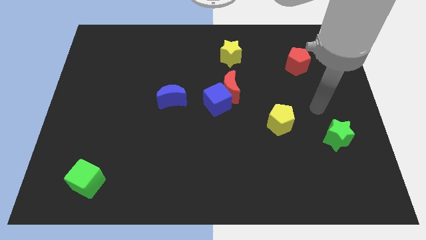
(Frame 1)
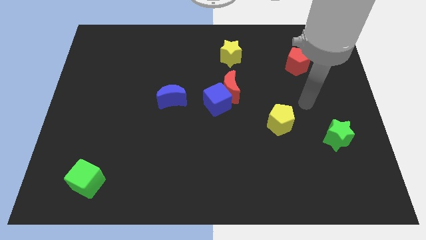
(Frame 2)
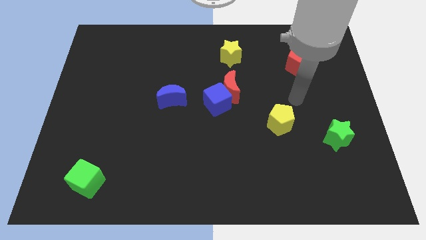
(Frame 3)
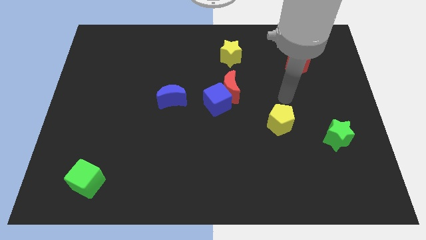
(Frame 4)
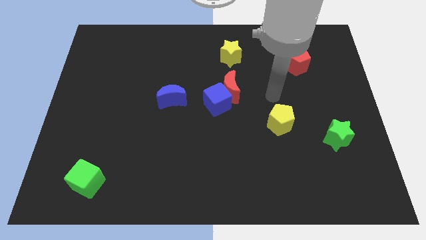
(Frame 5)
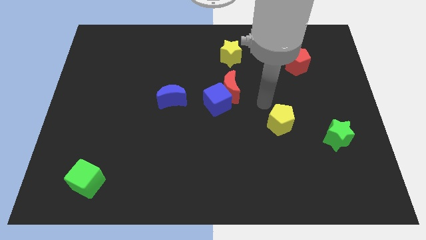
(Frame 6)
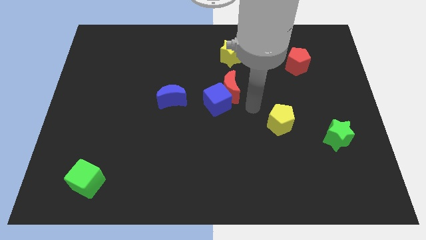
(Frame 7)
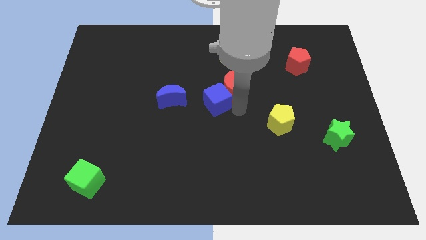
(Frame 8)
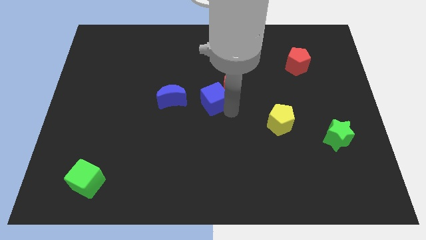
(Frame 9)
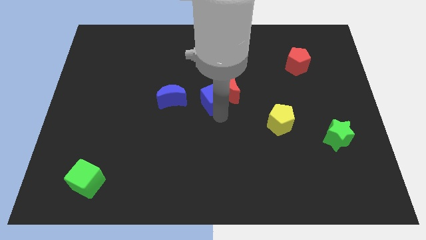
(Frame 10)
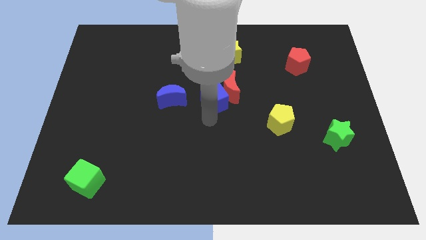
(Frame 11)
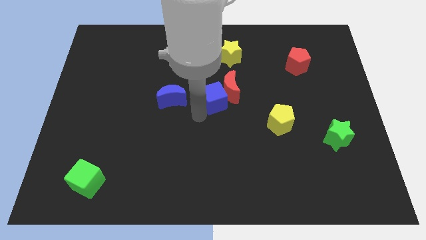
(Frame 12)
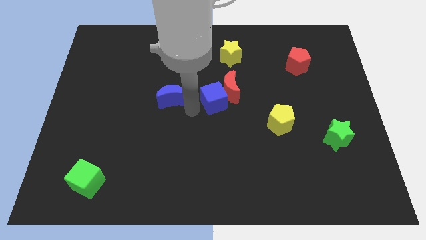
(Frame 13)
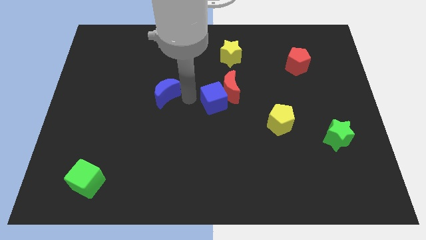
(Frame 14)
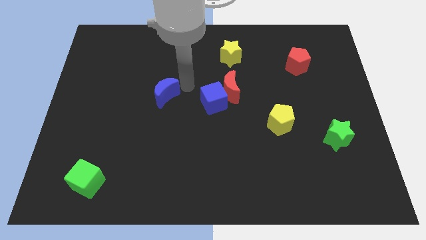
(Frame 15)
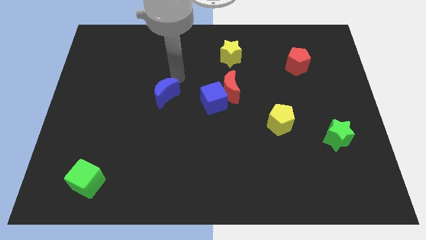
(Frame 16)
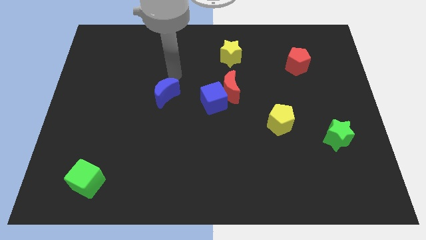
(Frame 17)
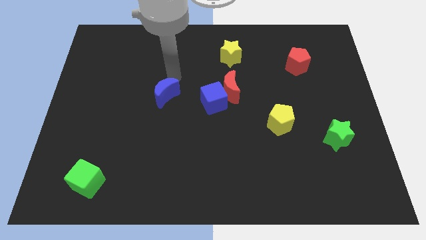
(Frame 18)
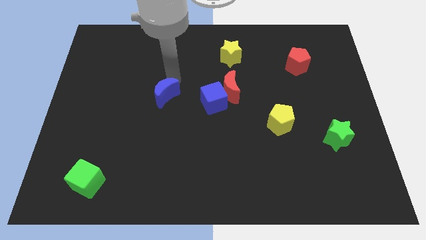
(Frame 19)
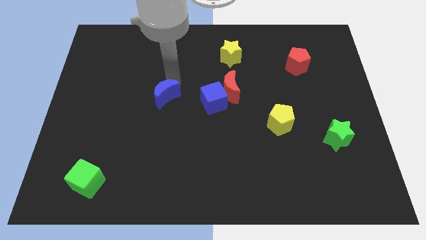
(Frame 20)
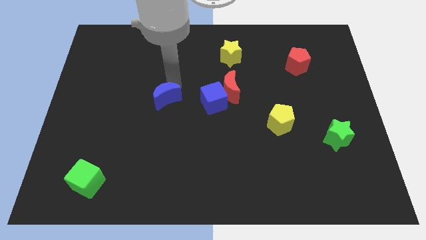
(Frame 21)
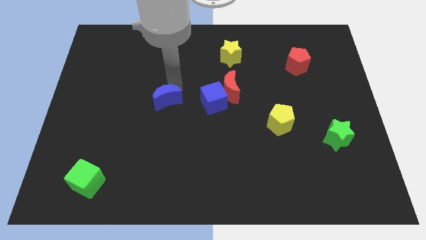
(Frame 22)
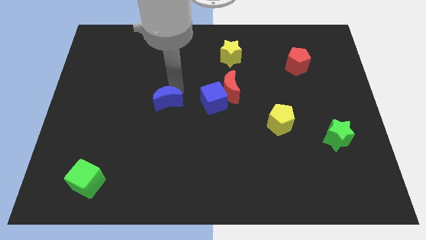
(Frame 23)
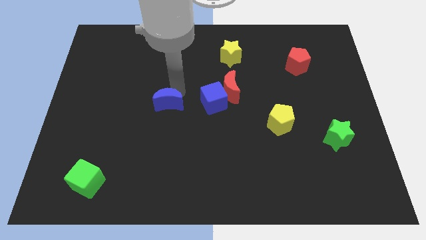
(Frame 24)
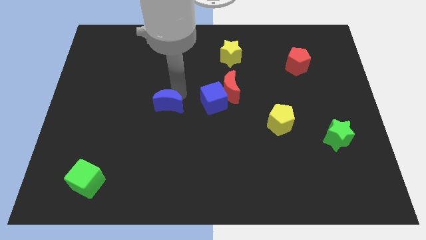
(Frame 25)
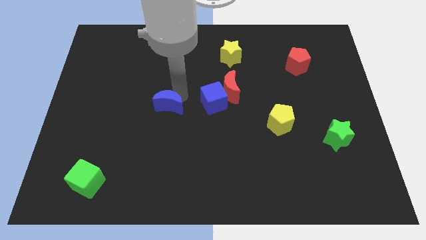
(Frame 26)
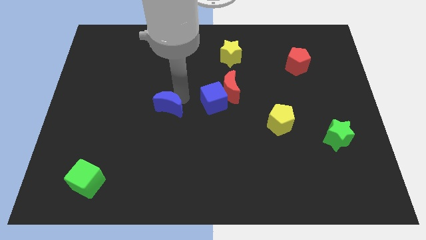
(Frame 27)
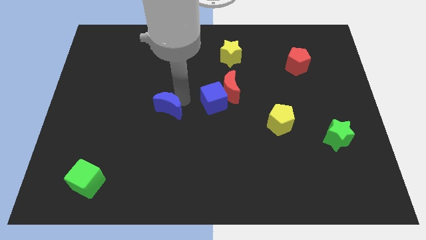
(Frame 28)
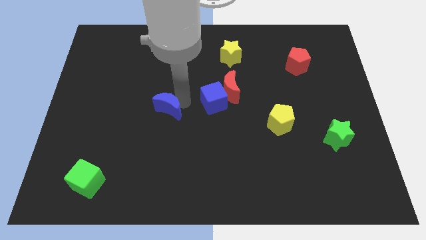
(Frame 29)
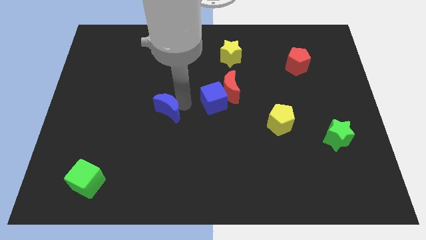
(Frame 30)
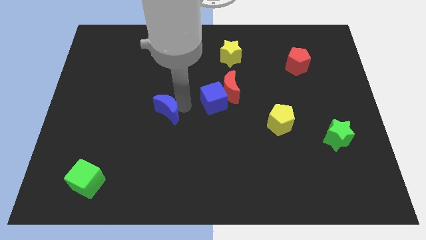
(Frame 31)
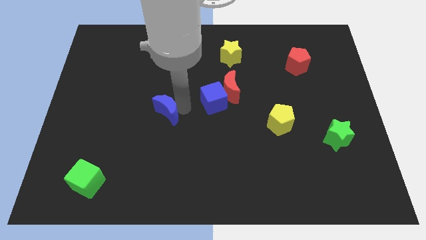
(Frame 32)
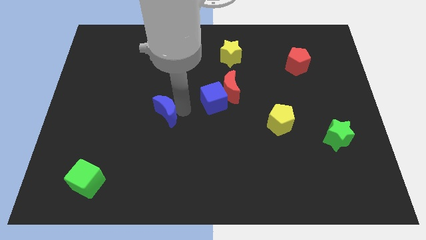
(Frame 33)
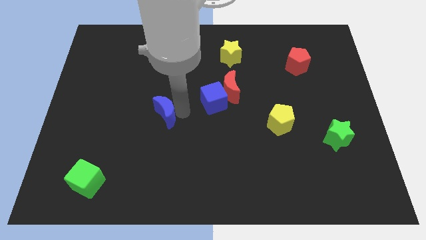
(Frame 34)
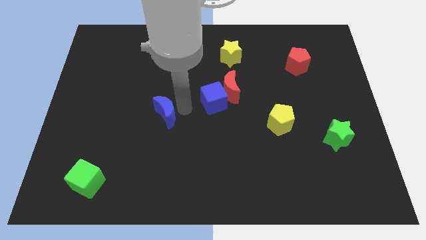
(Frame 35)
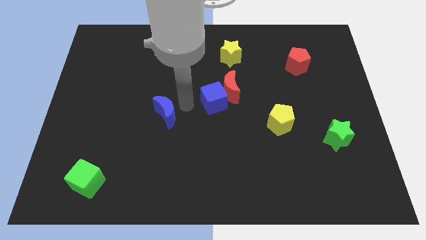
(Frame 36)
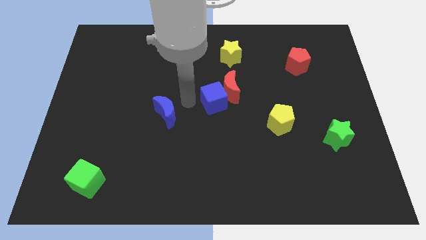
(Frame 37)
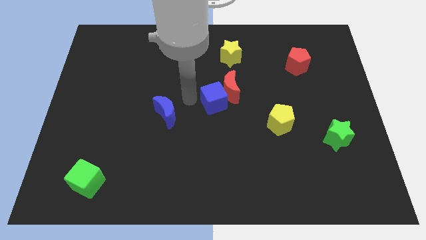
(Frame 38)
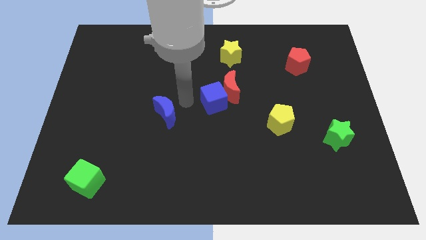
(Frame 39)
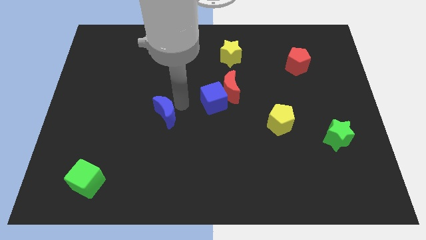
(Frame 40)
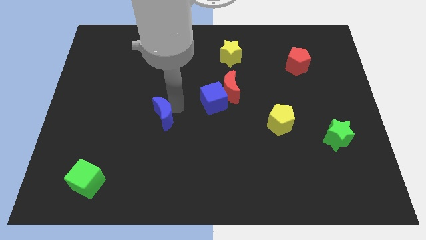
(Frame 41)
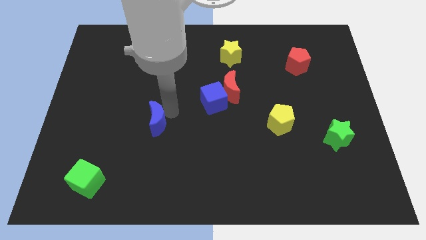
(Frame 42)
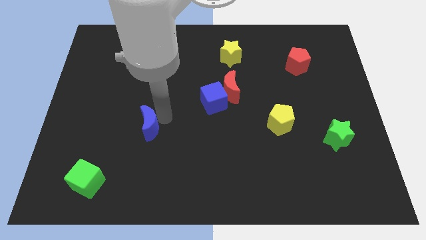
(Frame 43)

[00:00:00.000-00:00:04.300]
move the blue moon downwards and then to the left slightly

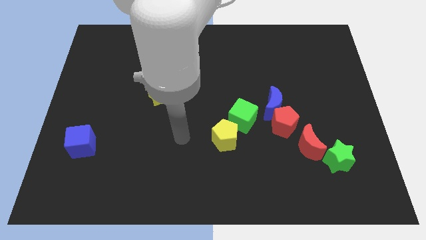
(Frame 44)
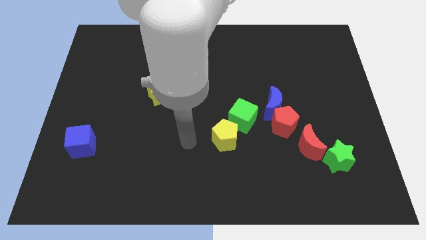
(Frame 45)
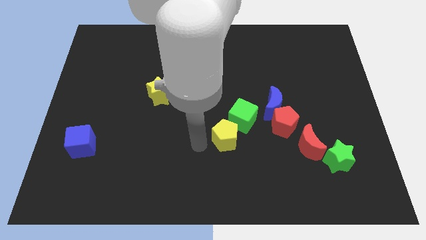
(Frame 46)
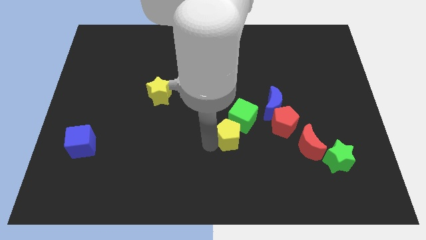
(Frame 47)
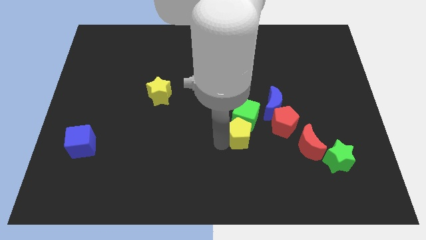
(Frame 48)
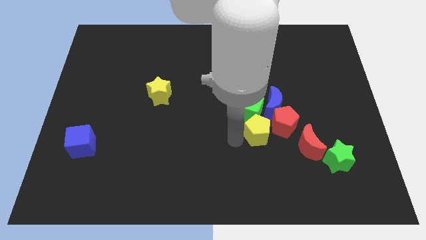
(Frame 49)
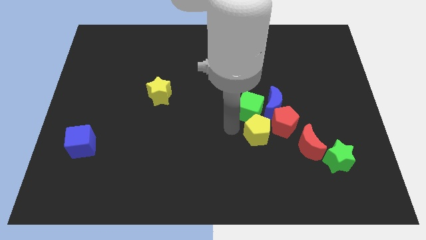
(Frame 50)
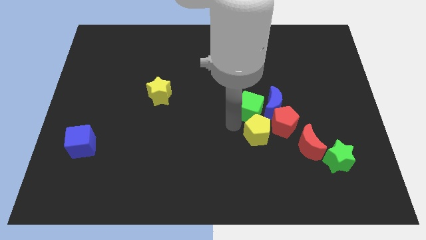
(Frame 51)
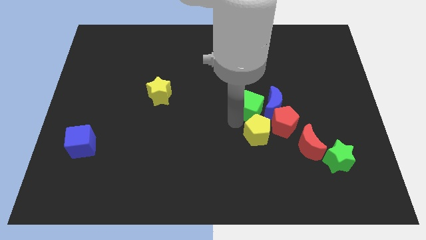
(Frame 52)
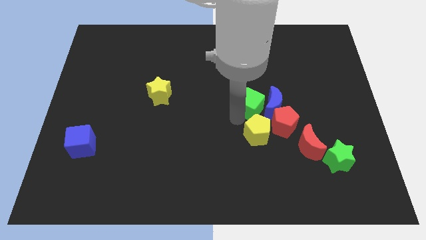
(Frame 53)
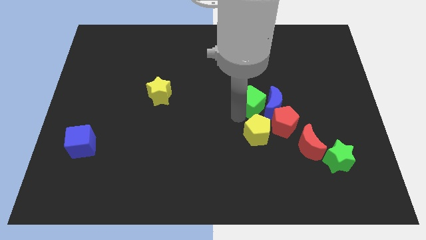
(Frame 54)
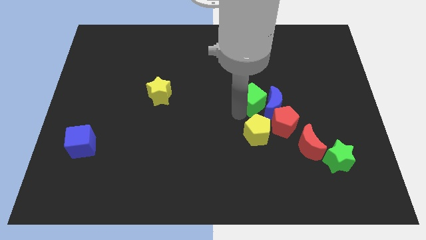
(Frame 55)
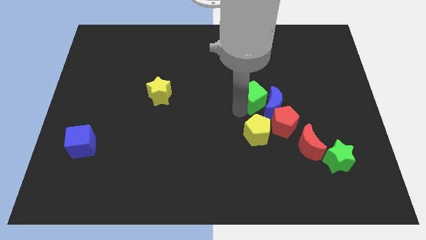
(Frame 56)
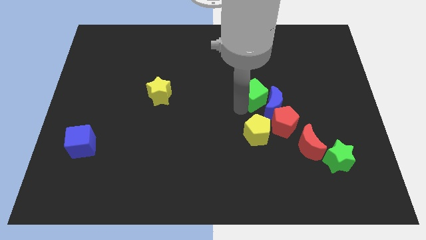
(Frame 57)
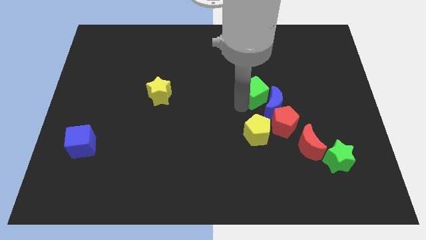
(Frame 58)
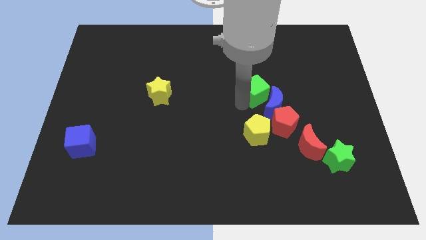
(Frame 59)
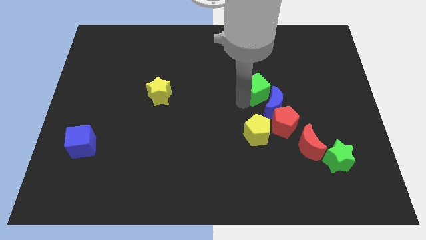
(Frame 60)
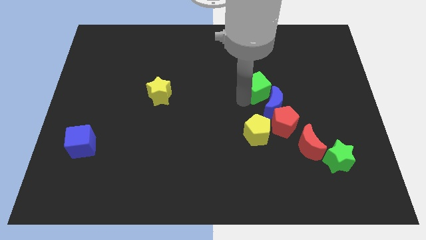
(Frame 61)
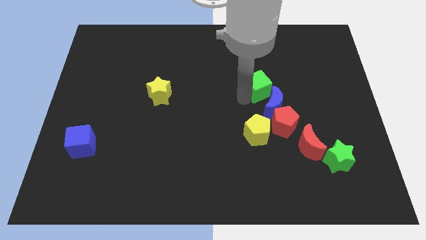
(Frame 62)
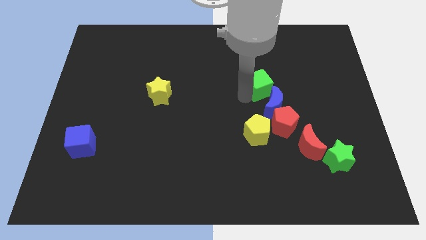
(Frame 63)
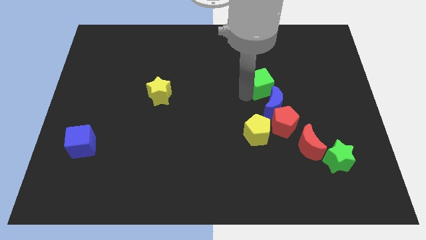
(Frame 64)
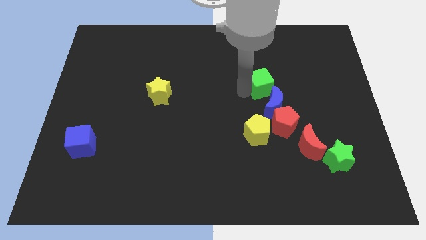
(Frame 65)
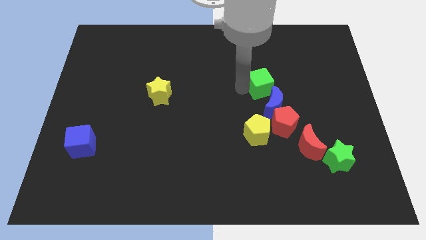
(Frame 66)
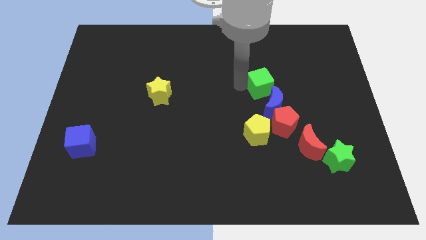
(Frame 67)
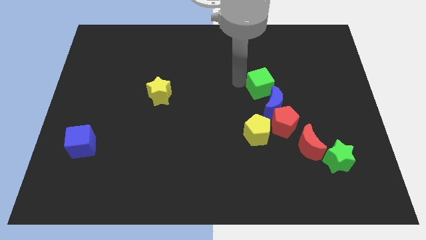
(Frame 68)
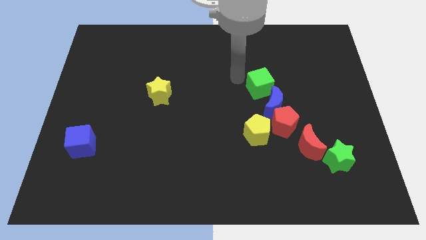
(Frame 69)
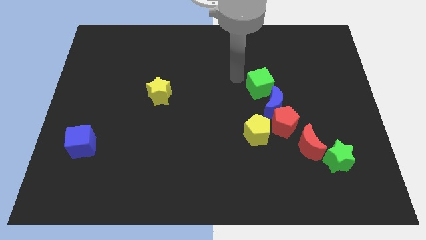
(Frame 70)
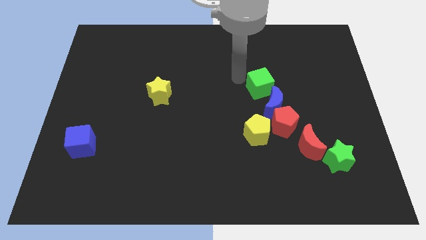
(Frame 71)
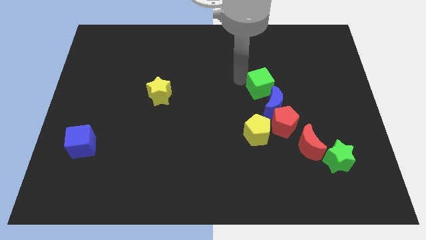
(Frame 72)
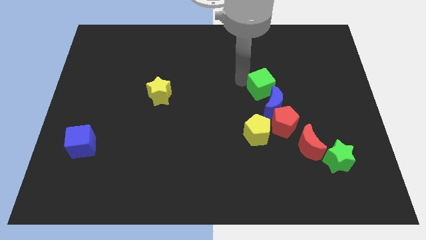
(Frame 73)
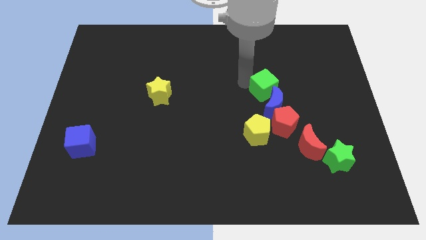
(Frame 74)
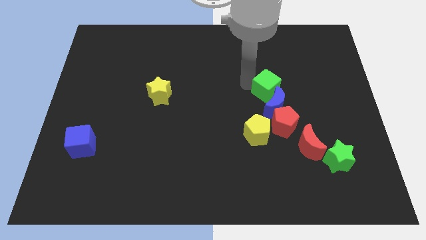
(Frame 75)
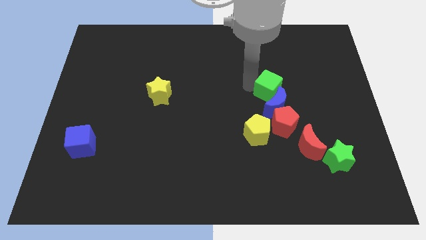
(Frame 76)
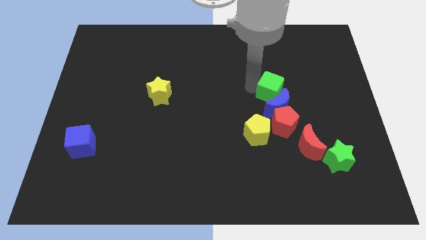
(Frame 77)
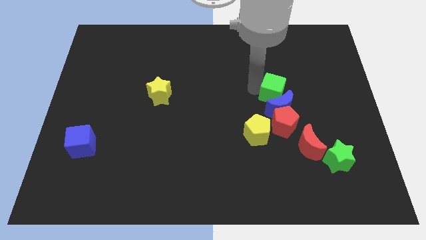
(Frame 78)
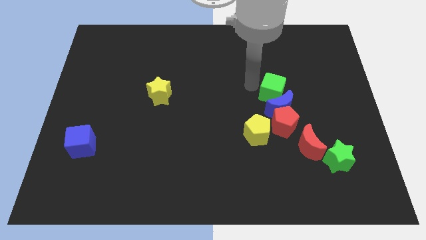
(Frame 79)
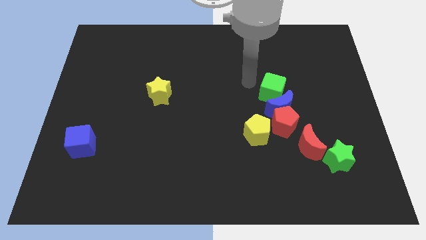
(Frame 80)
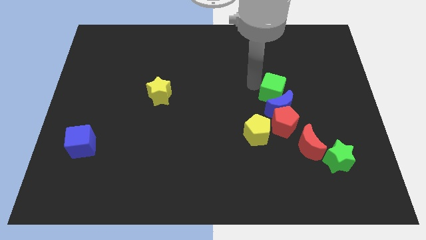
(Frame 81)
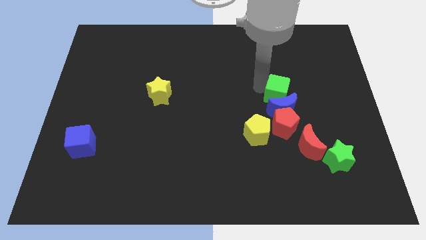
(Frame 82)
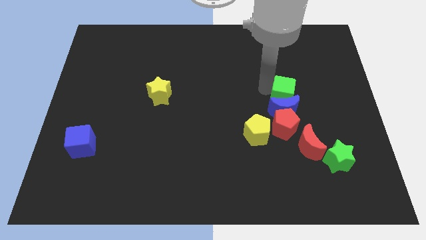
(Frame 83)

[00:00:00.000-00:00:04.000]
push the green cube a bit right
